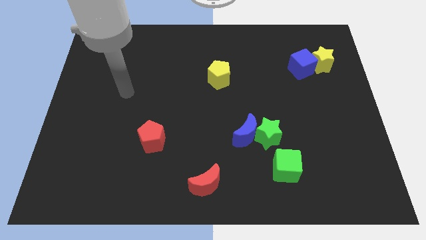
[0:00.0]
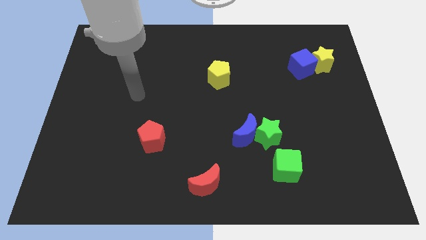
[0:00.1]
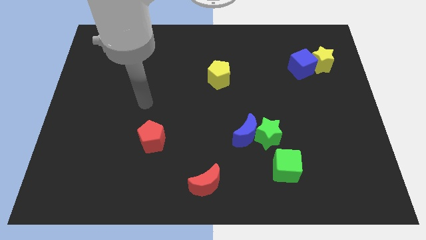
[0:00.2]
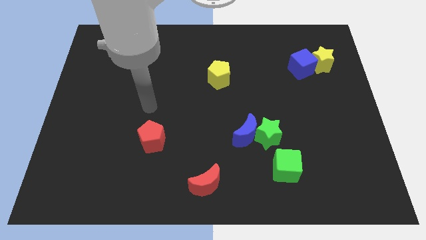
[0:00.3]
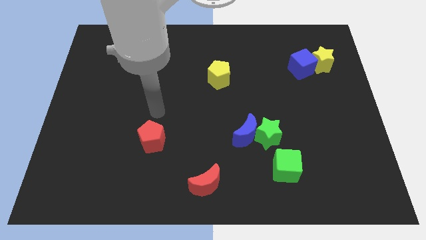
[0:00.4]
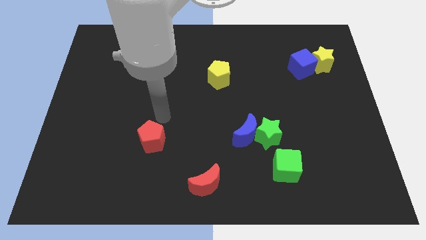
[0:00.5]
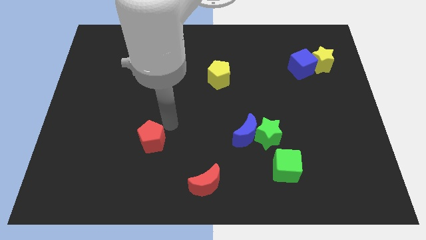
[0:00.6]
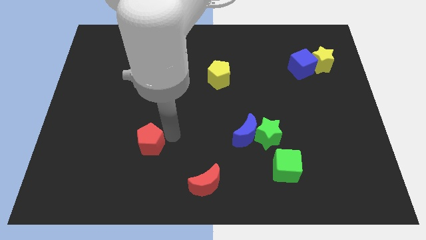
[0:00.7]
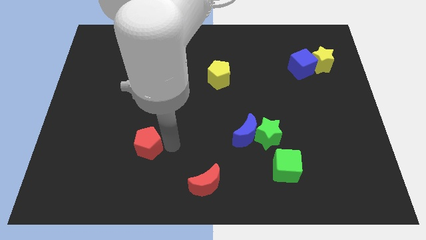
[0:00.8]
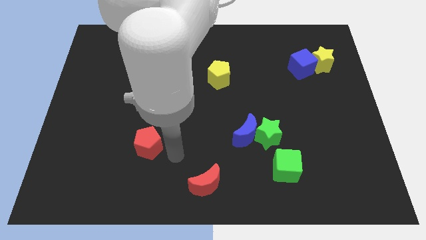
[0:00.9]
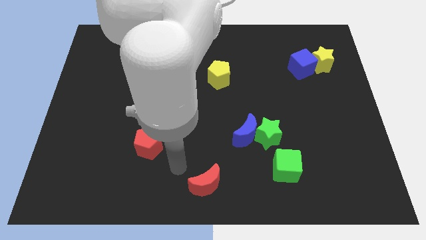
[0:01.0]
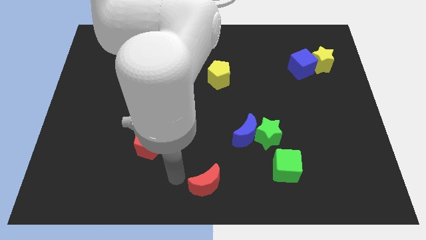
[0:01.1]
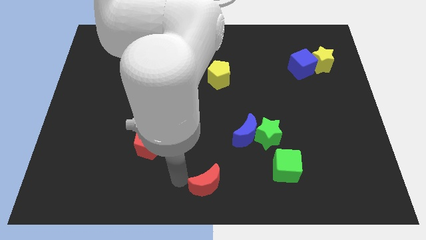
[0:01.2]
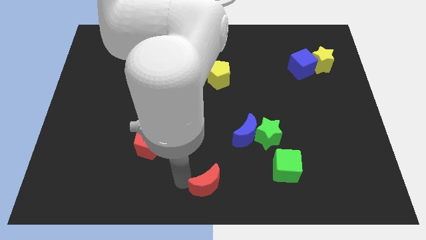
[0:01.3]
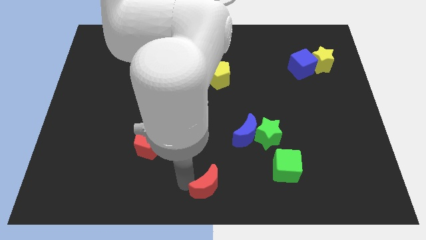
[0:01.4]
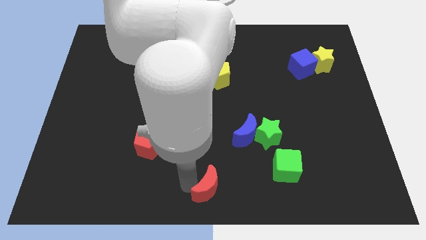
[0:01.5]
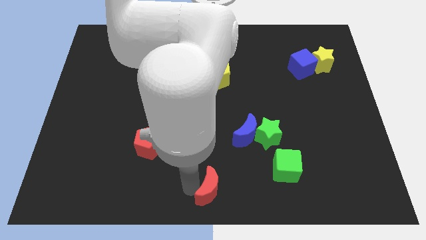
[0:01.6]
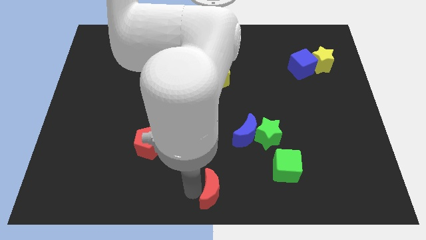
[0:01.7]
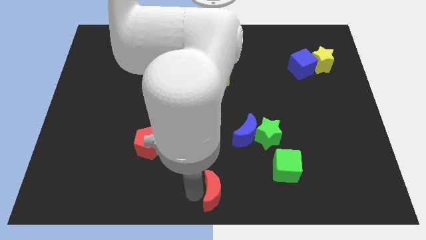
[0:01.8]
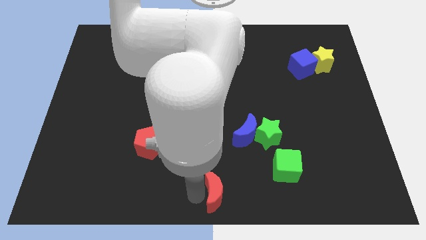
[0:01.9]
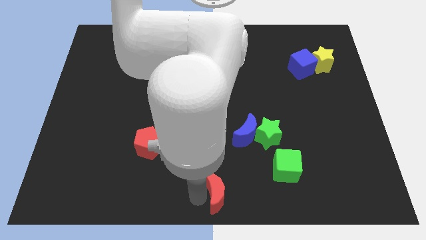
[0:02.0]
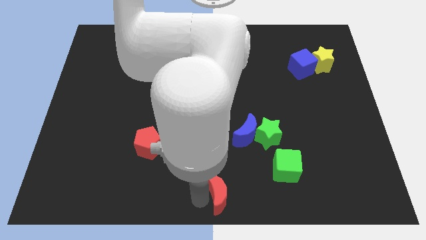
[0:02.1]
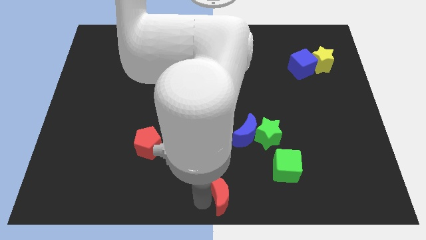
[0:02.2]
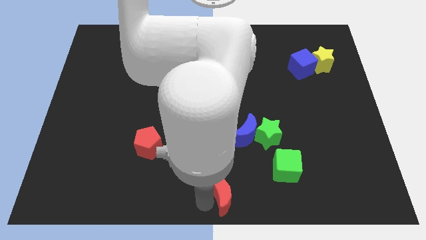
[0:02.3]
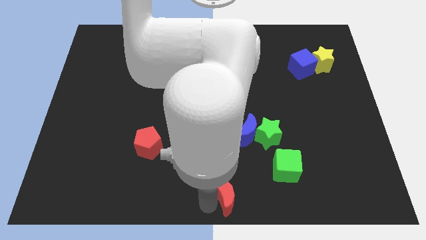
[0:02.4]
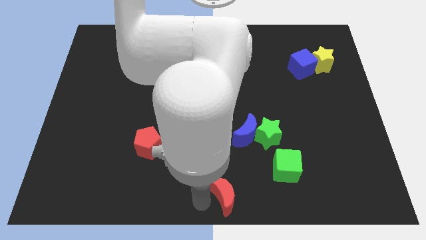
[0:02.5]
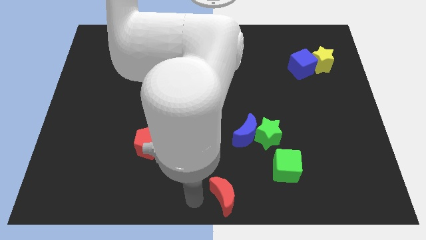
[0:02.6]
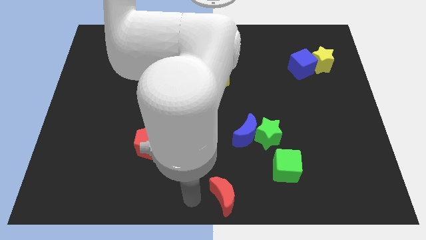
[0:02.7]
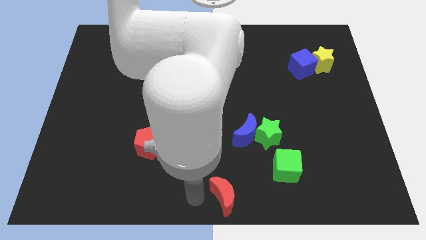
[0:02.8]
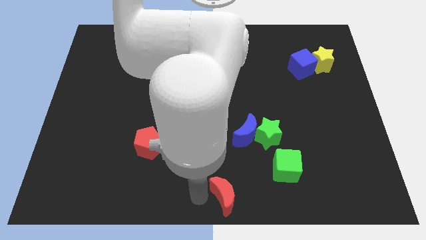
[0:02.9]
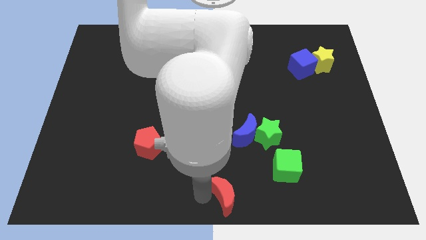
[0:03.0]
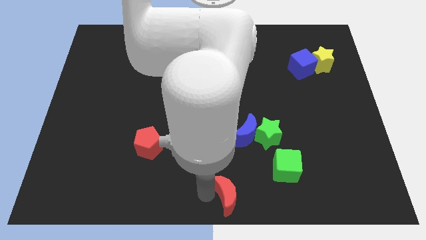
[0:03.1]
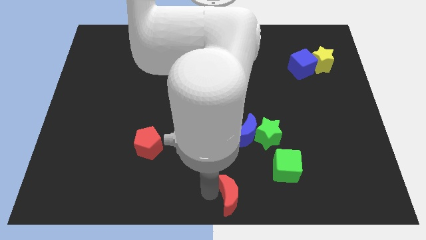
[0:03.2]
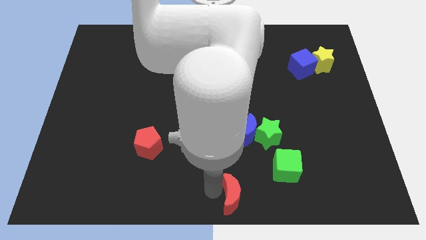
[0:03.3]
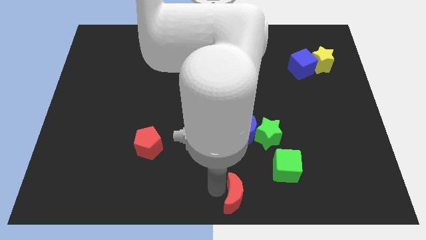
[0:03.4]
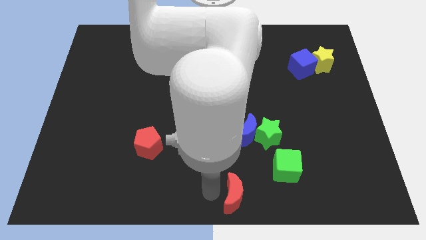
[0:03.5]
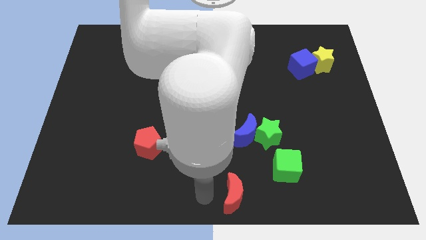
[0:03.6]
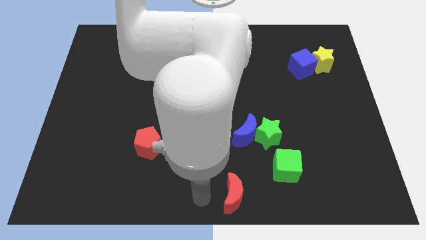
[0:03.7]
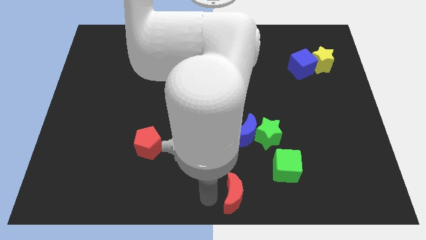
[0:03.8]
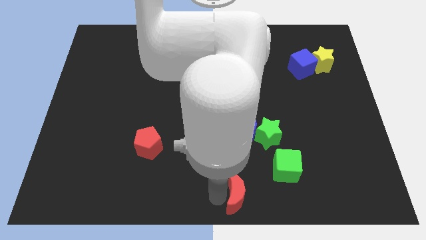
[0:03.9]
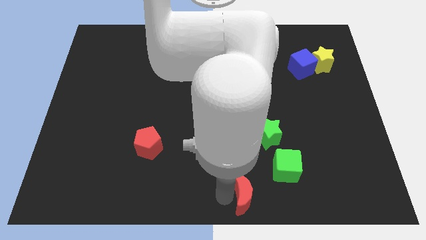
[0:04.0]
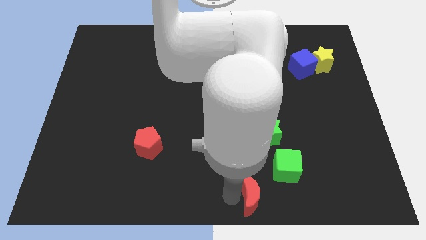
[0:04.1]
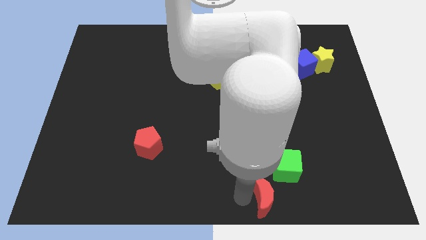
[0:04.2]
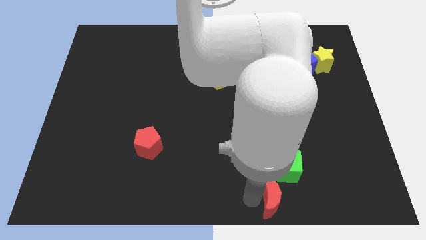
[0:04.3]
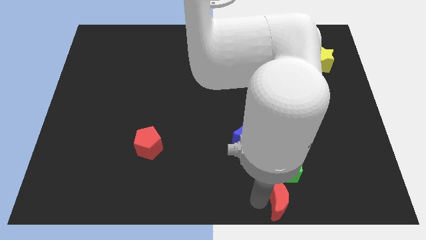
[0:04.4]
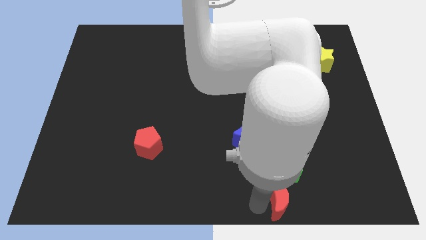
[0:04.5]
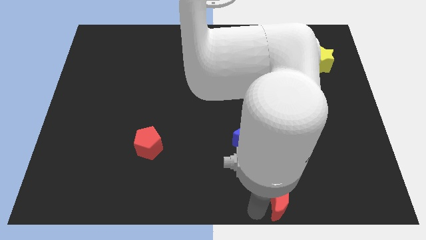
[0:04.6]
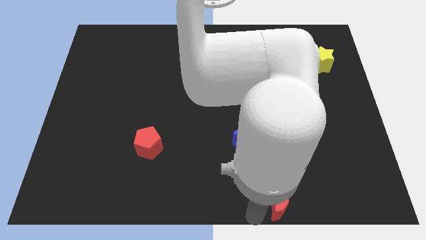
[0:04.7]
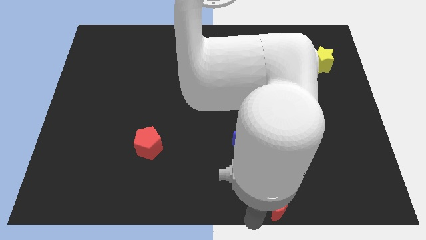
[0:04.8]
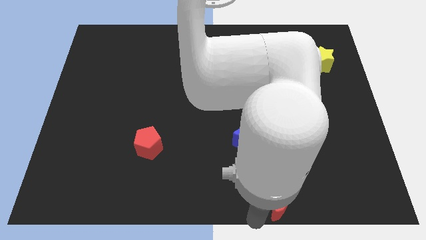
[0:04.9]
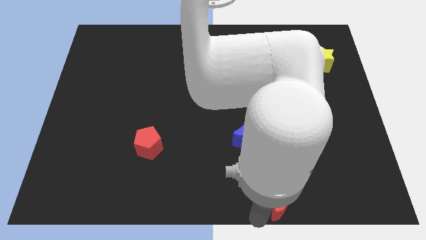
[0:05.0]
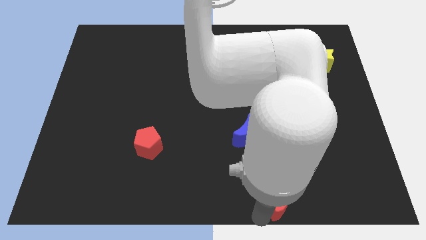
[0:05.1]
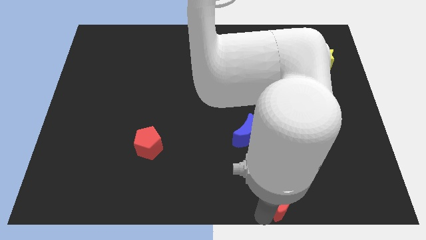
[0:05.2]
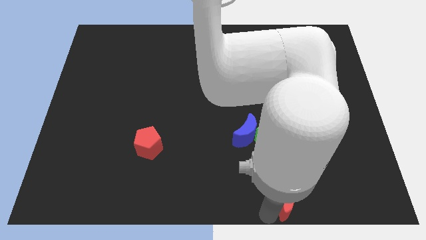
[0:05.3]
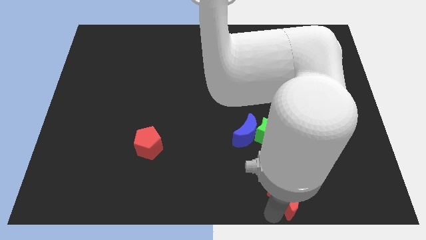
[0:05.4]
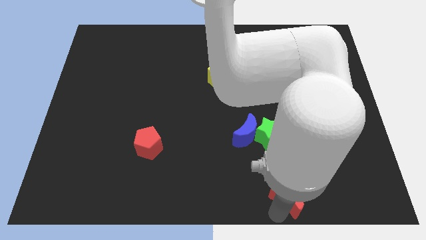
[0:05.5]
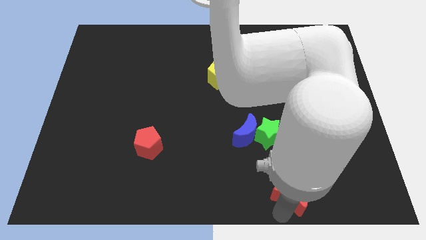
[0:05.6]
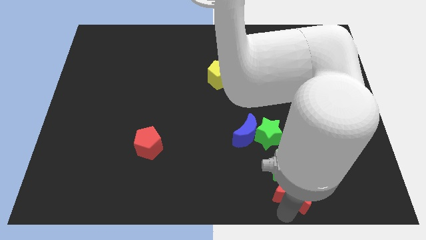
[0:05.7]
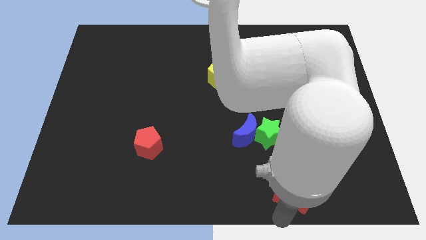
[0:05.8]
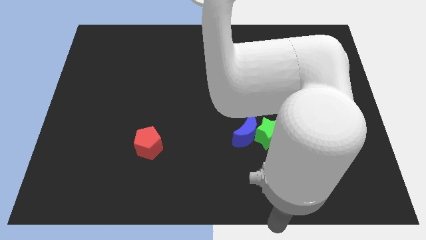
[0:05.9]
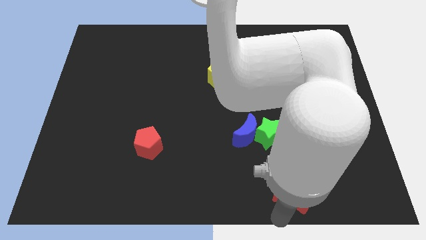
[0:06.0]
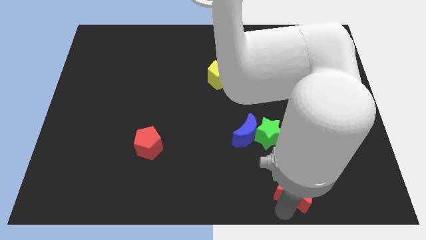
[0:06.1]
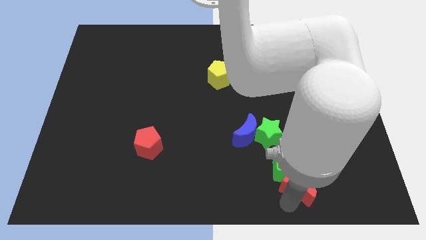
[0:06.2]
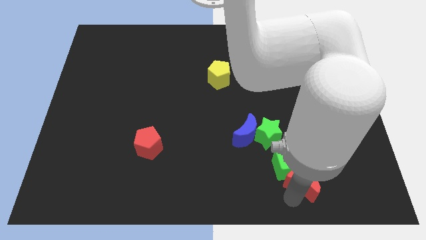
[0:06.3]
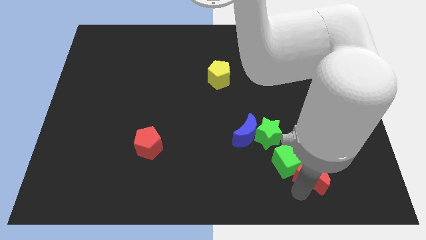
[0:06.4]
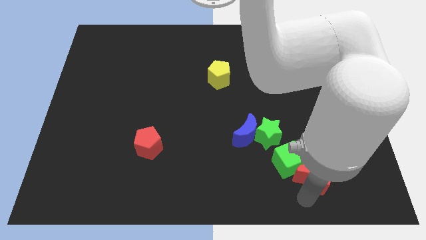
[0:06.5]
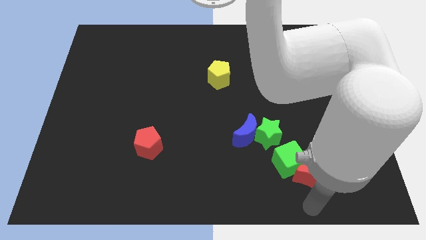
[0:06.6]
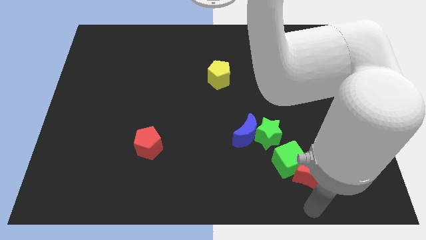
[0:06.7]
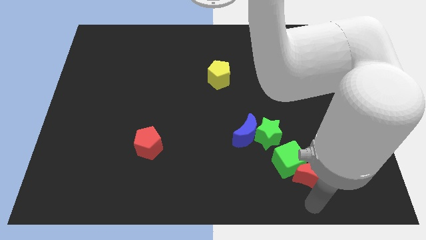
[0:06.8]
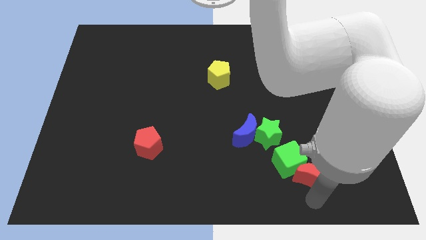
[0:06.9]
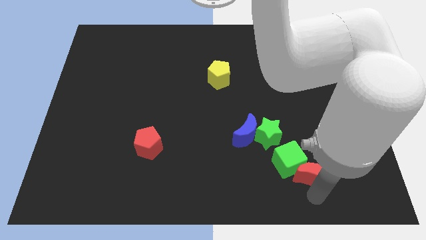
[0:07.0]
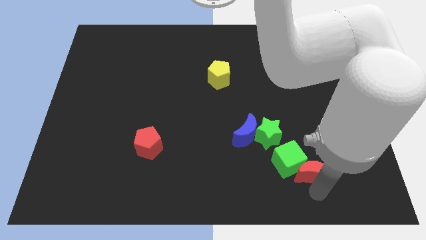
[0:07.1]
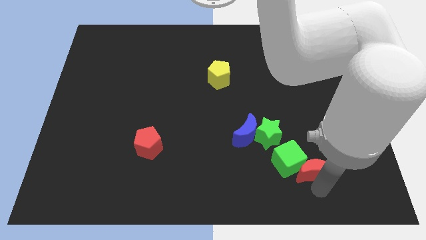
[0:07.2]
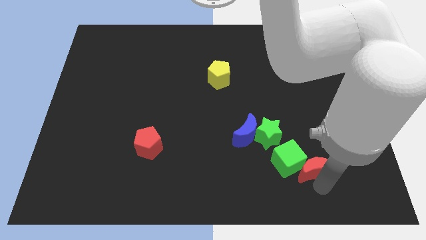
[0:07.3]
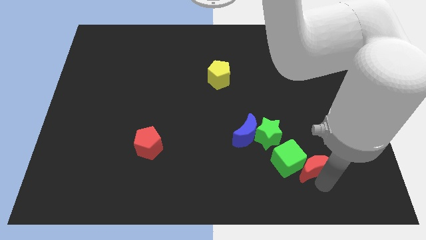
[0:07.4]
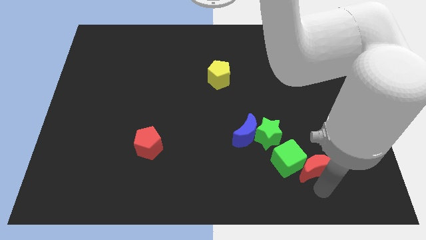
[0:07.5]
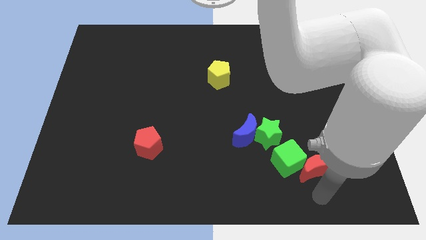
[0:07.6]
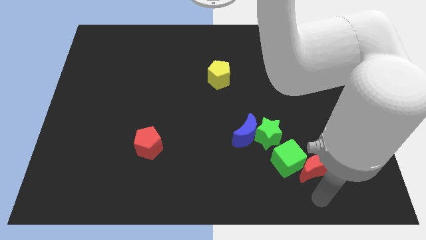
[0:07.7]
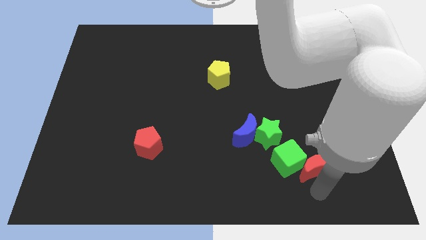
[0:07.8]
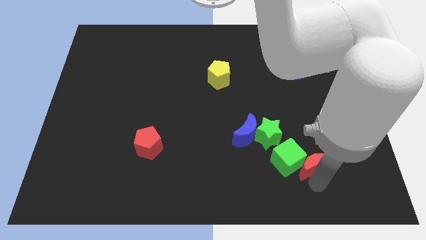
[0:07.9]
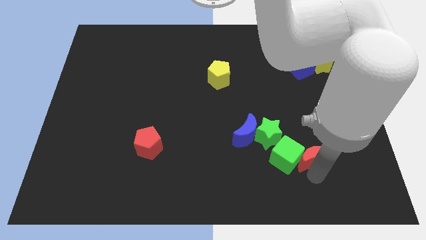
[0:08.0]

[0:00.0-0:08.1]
put the red moon to the top right side of the green cube
